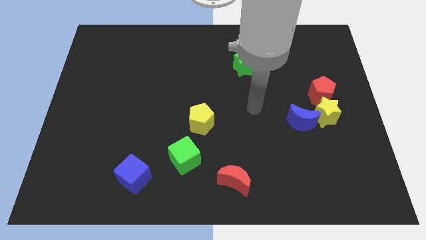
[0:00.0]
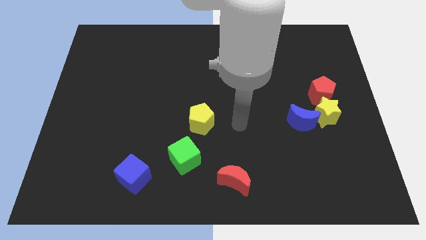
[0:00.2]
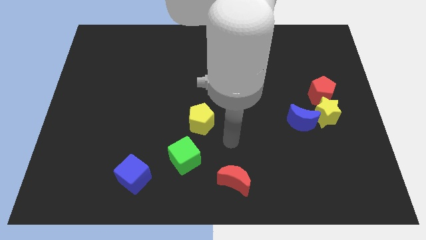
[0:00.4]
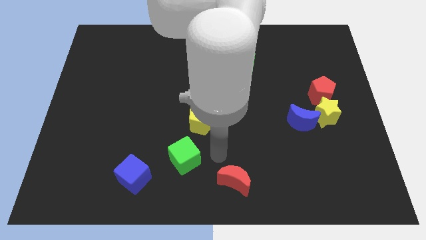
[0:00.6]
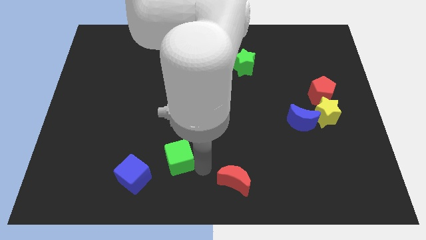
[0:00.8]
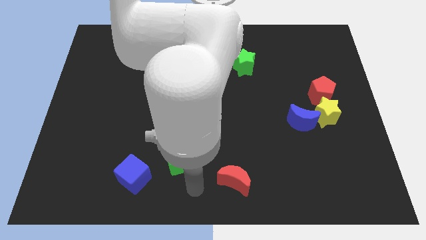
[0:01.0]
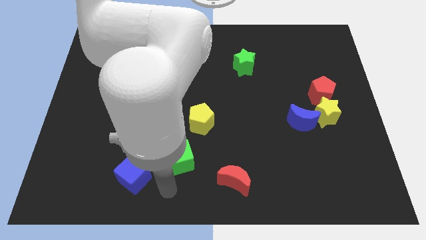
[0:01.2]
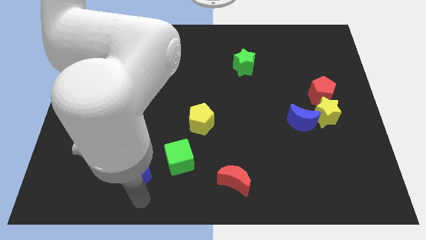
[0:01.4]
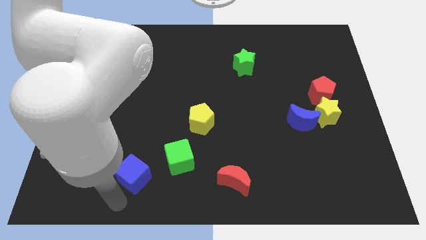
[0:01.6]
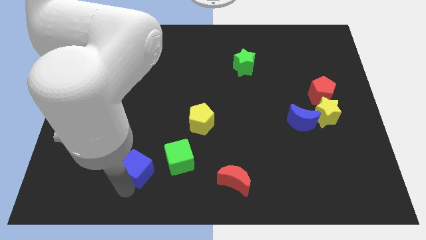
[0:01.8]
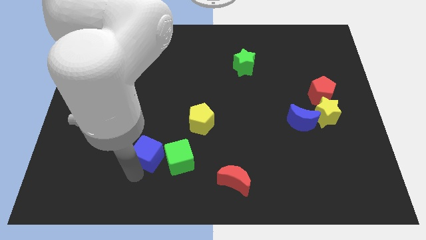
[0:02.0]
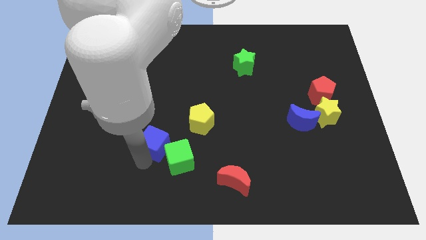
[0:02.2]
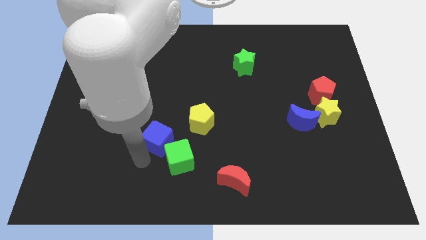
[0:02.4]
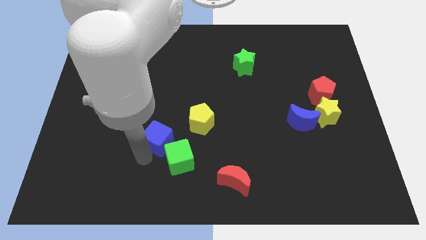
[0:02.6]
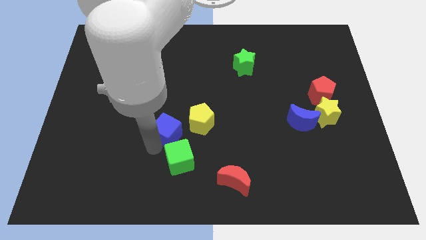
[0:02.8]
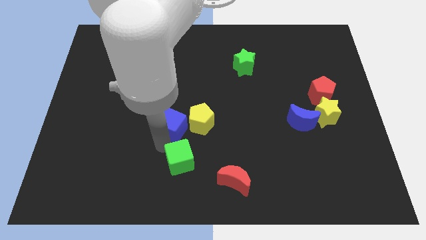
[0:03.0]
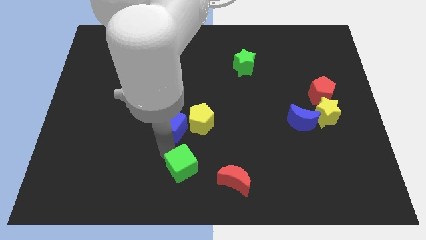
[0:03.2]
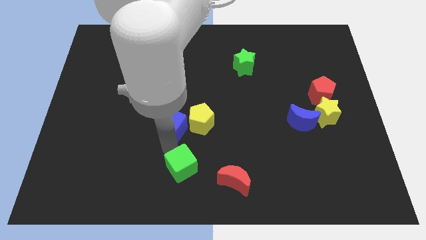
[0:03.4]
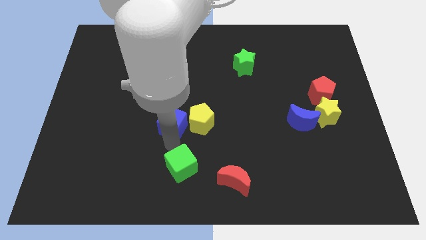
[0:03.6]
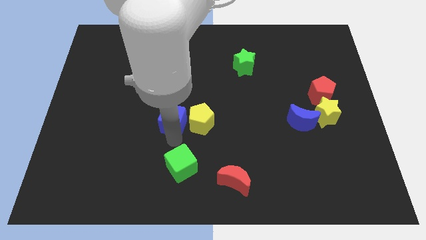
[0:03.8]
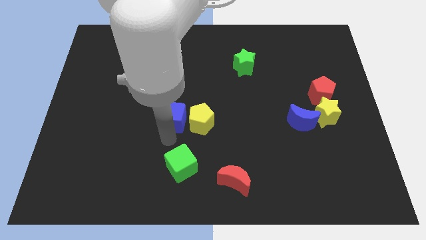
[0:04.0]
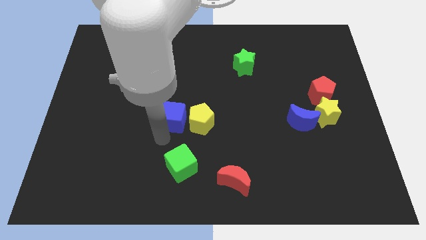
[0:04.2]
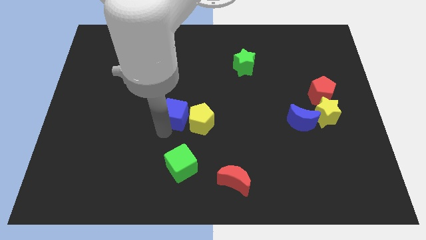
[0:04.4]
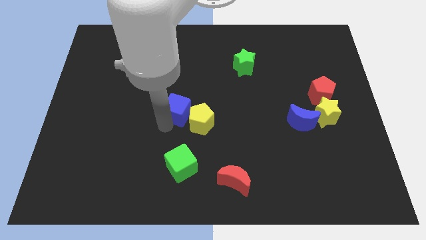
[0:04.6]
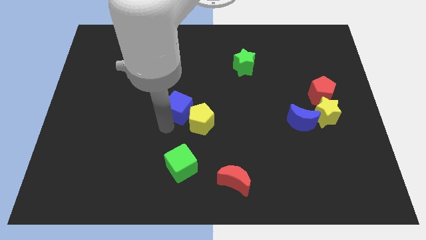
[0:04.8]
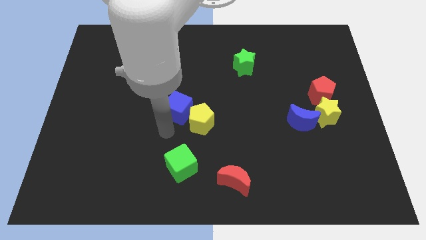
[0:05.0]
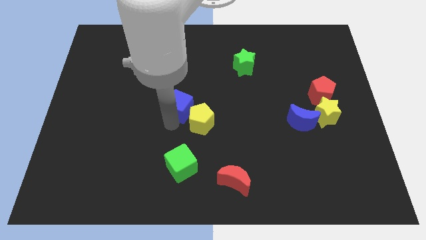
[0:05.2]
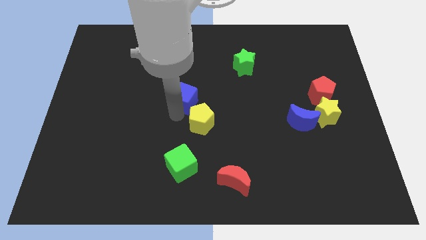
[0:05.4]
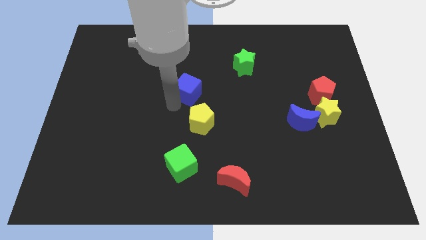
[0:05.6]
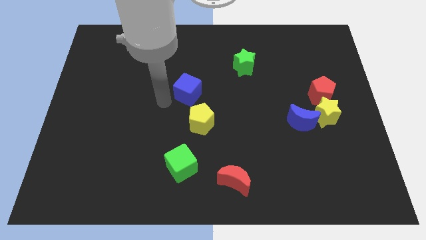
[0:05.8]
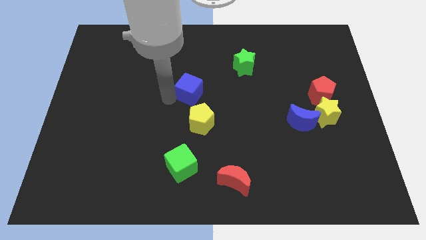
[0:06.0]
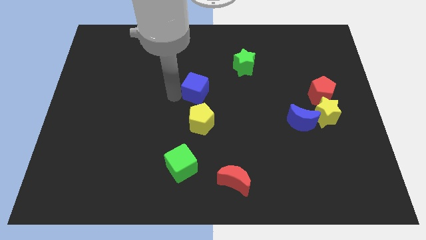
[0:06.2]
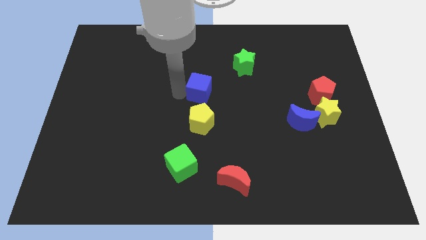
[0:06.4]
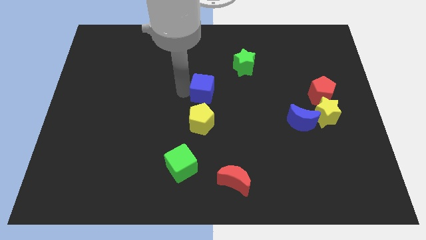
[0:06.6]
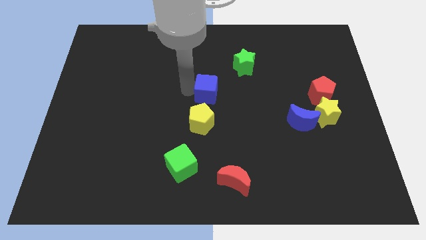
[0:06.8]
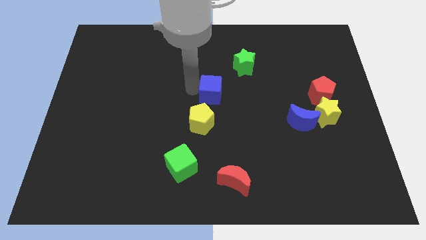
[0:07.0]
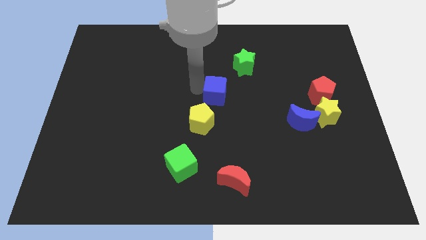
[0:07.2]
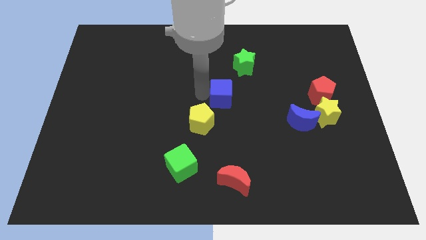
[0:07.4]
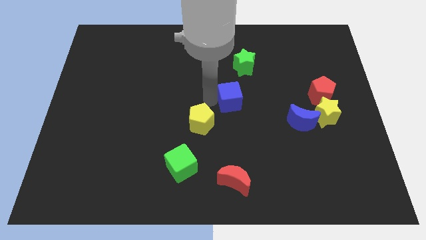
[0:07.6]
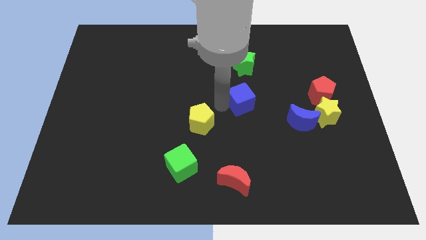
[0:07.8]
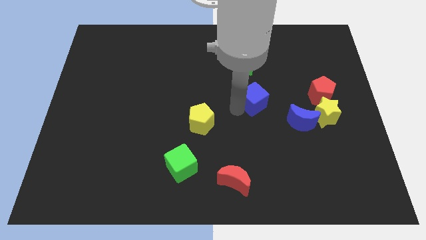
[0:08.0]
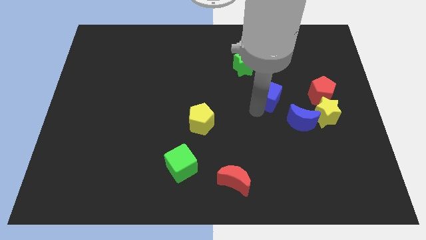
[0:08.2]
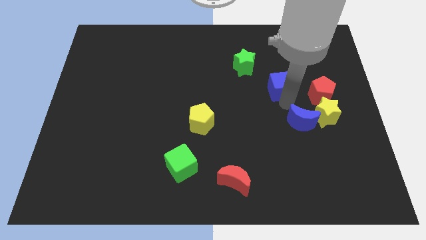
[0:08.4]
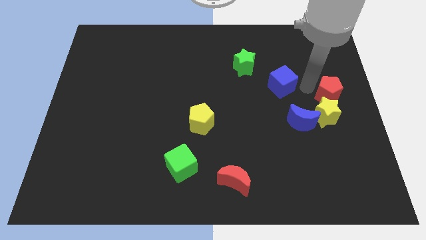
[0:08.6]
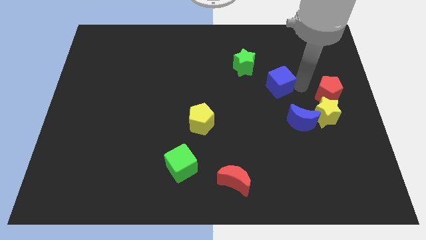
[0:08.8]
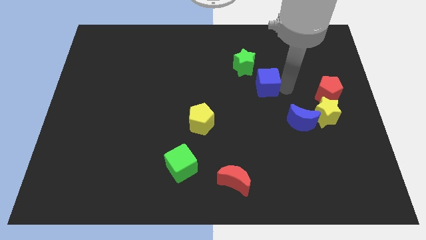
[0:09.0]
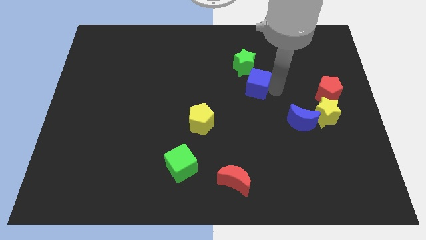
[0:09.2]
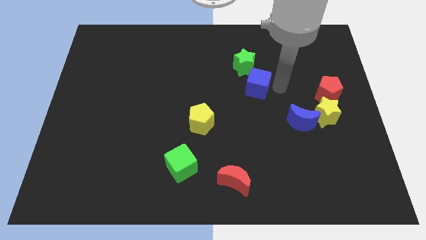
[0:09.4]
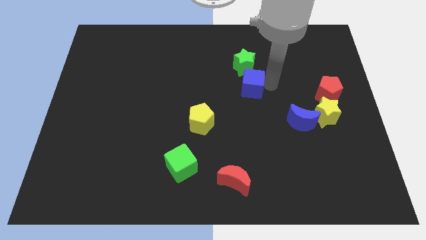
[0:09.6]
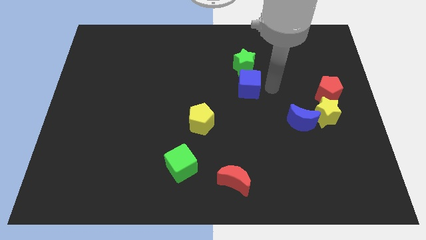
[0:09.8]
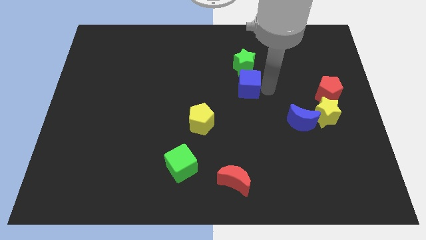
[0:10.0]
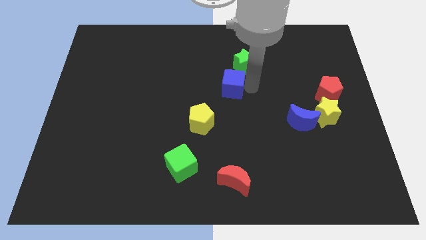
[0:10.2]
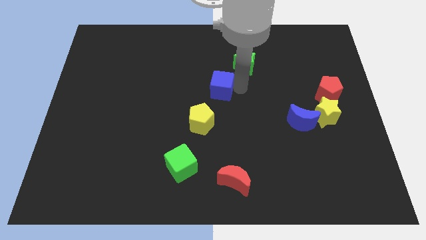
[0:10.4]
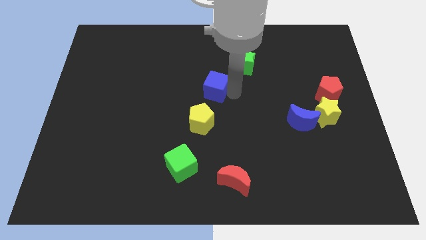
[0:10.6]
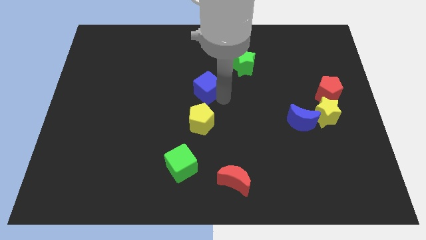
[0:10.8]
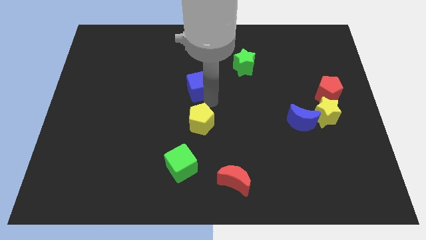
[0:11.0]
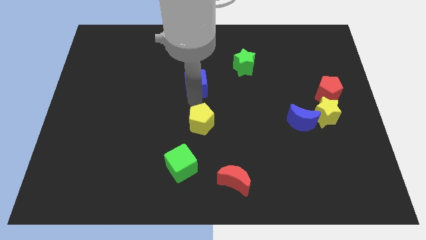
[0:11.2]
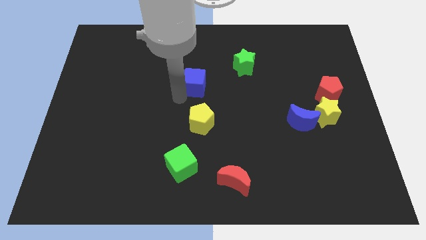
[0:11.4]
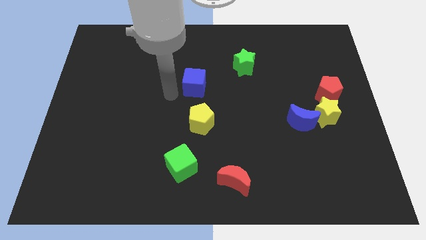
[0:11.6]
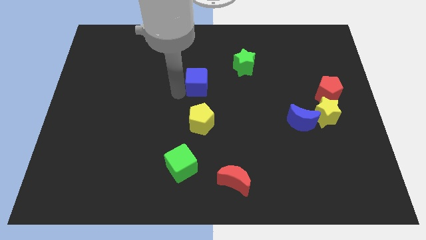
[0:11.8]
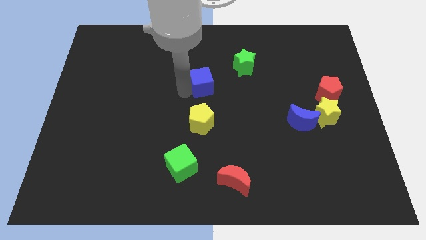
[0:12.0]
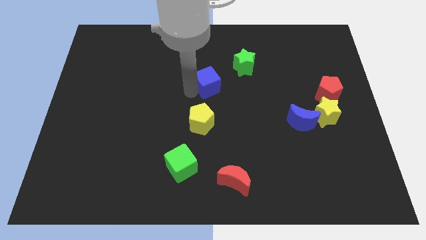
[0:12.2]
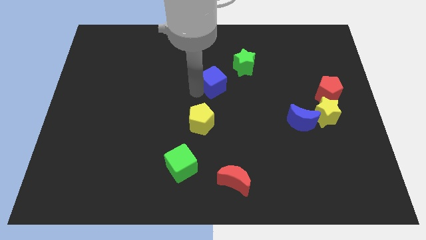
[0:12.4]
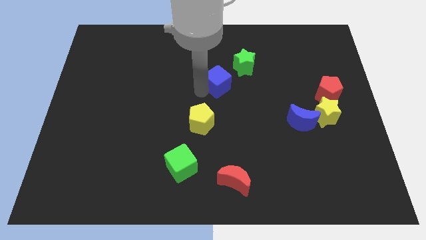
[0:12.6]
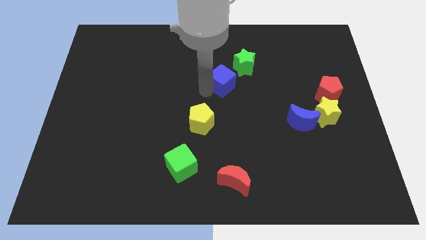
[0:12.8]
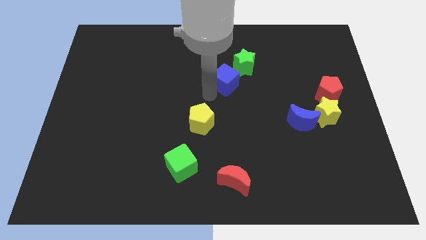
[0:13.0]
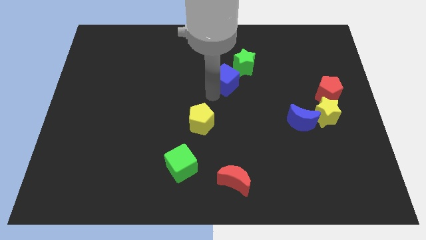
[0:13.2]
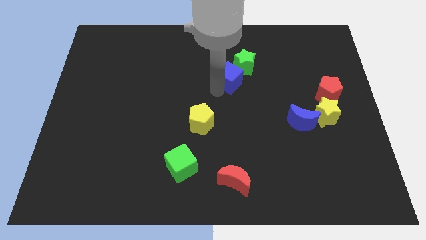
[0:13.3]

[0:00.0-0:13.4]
put the blue cube towards the green star
